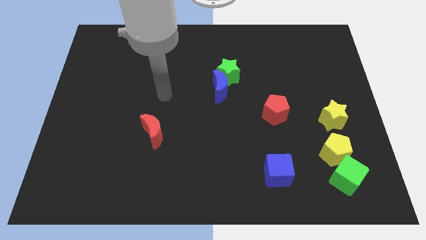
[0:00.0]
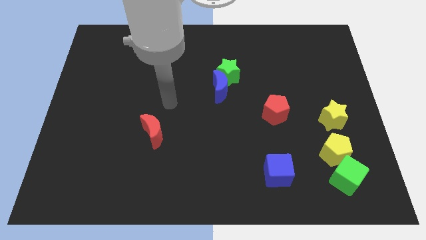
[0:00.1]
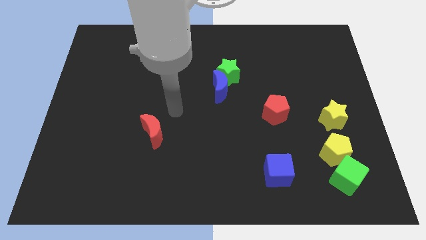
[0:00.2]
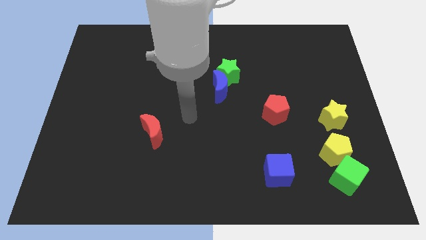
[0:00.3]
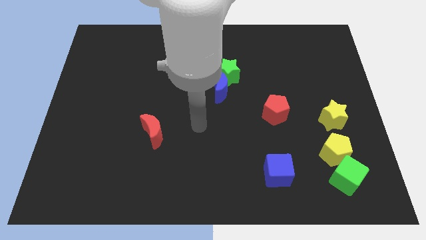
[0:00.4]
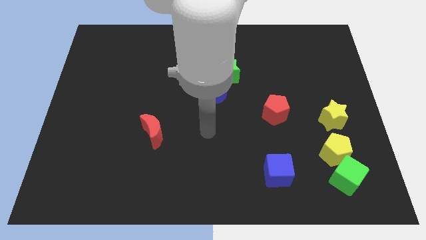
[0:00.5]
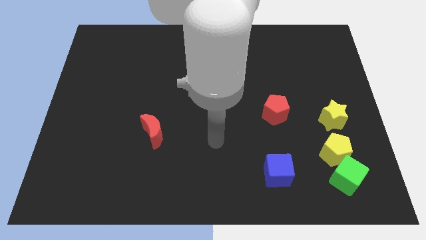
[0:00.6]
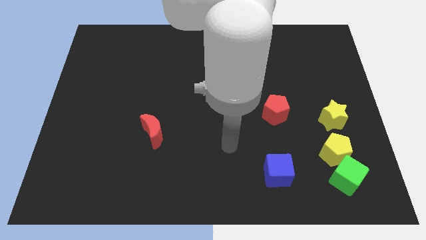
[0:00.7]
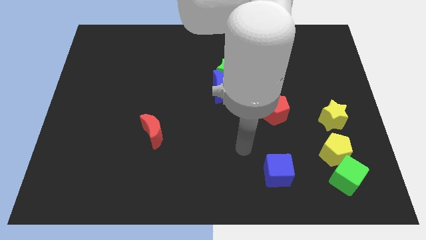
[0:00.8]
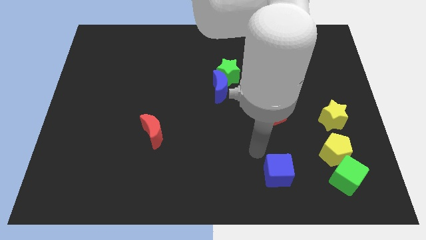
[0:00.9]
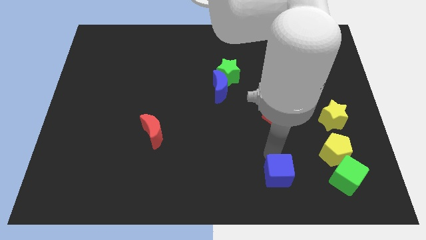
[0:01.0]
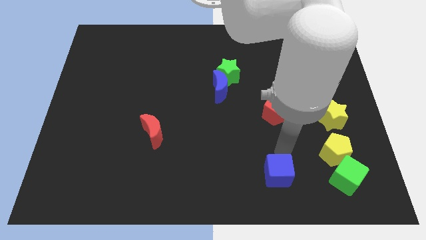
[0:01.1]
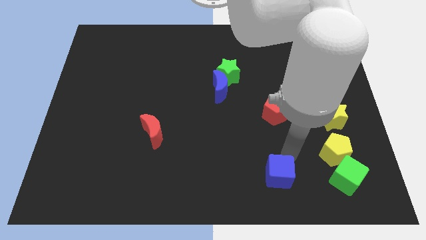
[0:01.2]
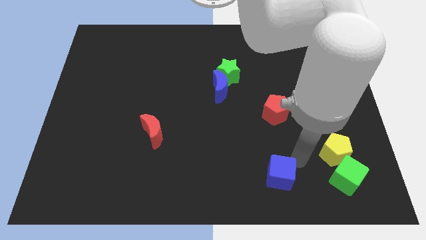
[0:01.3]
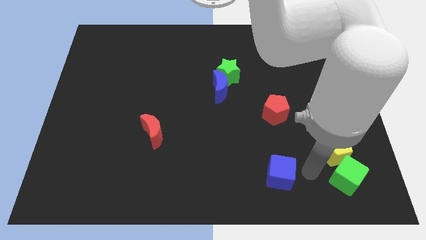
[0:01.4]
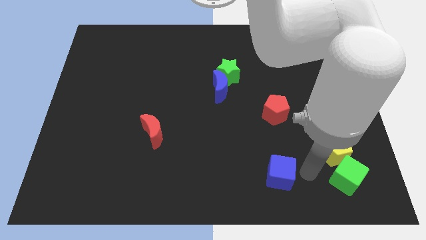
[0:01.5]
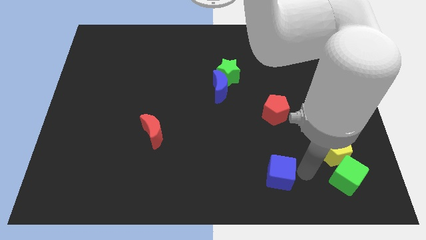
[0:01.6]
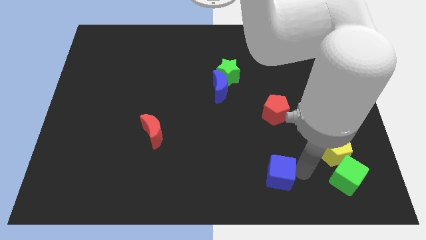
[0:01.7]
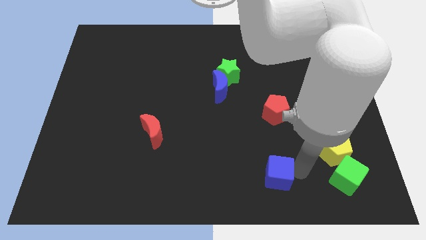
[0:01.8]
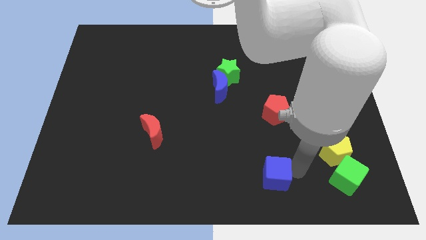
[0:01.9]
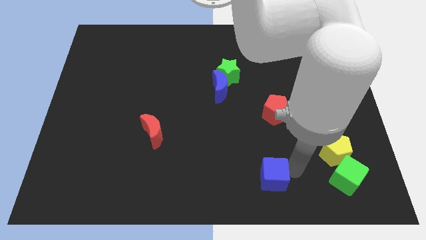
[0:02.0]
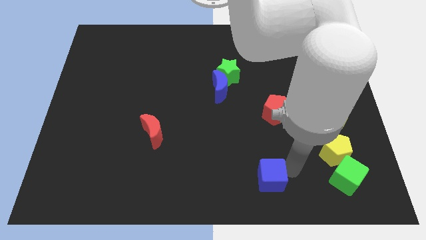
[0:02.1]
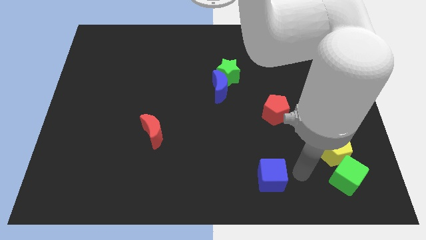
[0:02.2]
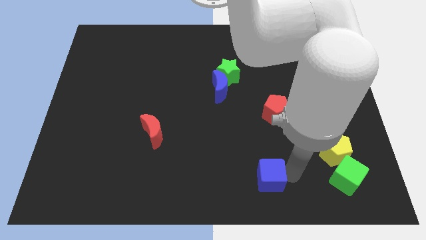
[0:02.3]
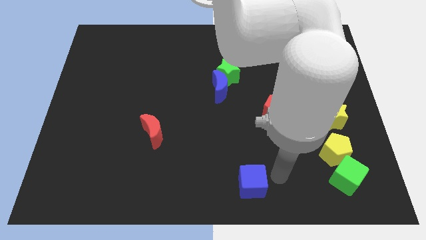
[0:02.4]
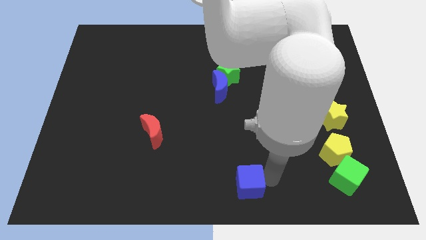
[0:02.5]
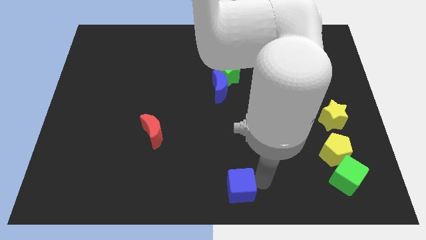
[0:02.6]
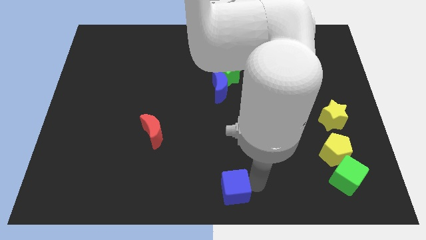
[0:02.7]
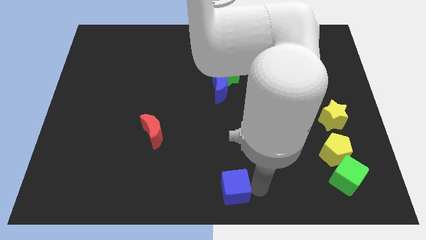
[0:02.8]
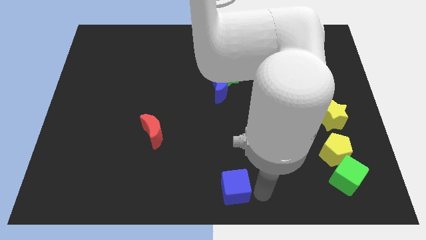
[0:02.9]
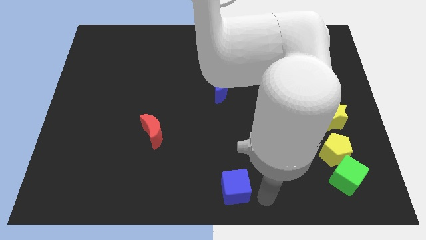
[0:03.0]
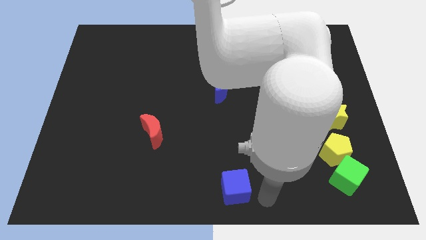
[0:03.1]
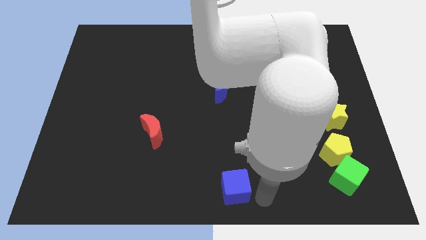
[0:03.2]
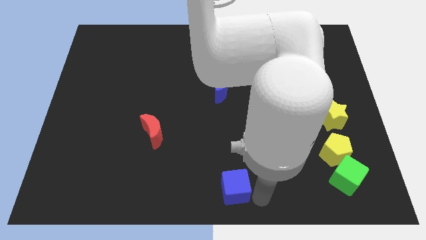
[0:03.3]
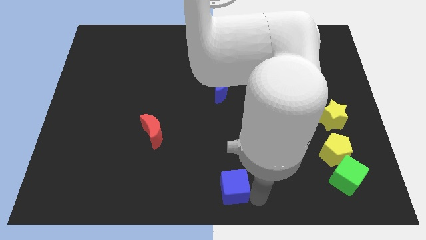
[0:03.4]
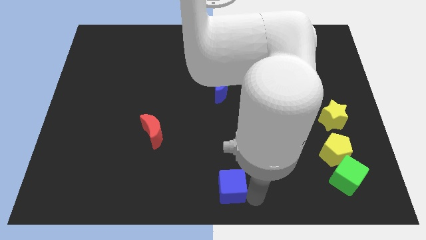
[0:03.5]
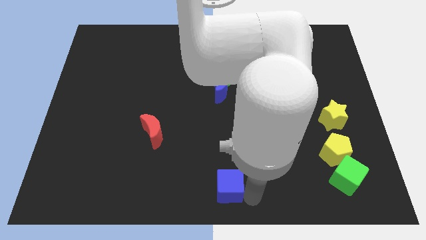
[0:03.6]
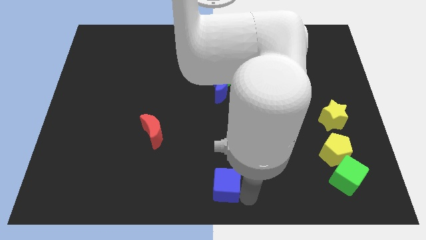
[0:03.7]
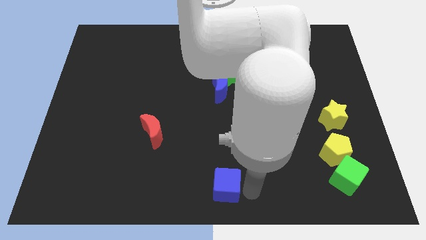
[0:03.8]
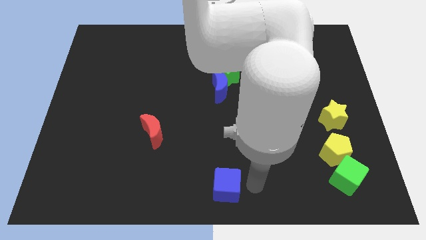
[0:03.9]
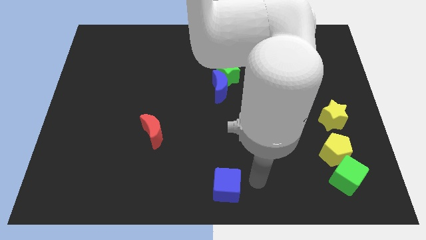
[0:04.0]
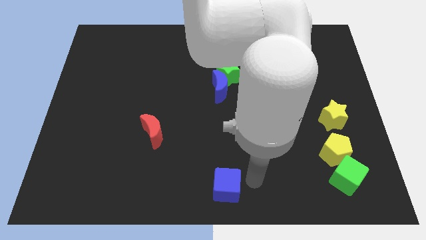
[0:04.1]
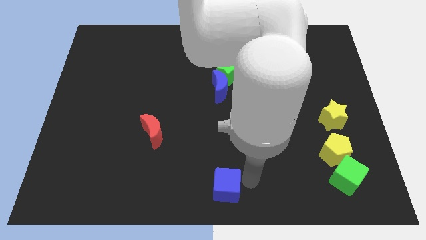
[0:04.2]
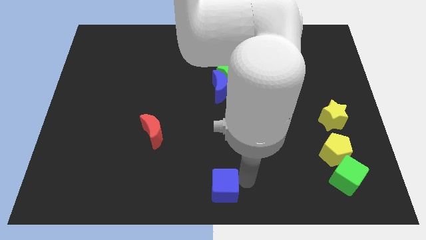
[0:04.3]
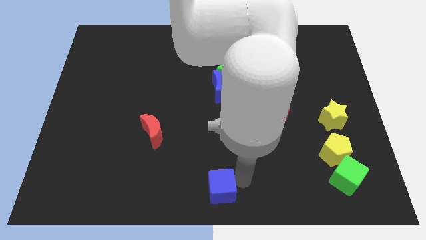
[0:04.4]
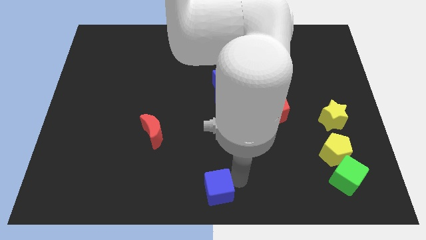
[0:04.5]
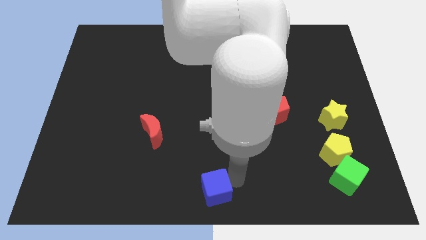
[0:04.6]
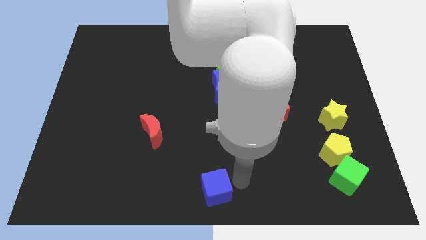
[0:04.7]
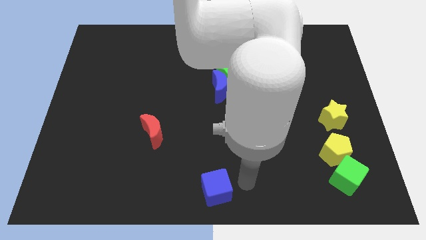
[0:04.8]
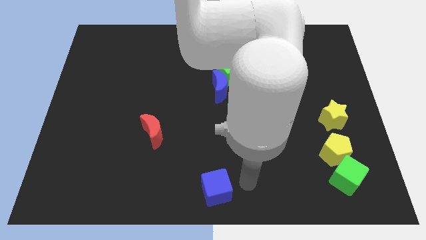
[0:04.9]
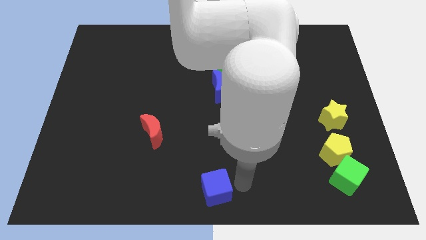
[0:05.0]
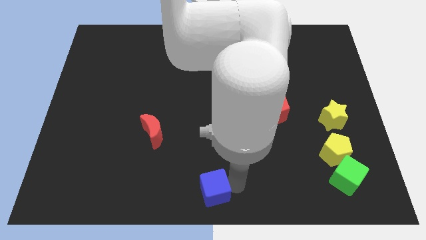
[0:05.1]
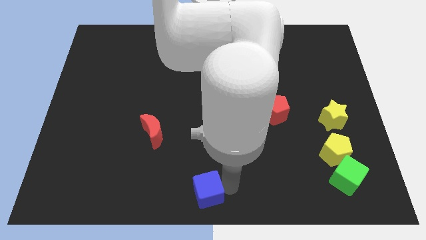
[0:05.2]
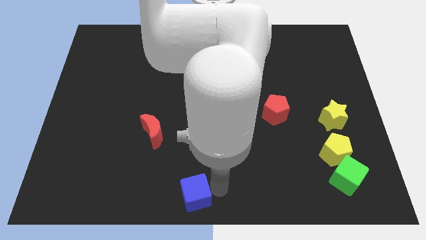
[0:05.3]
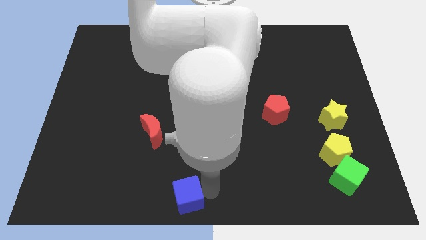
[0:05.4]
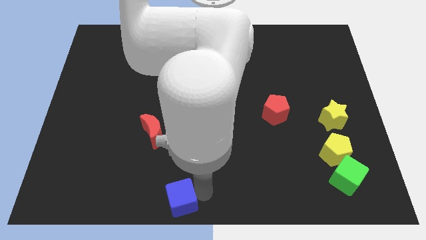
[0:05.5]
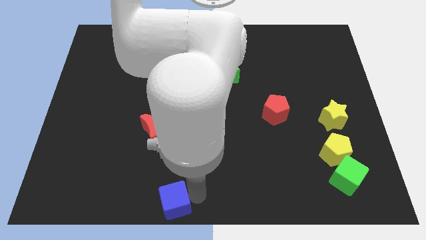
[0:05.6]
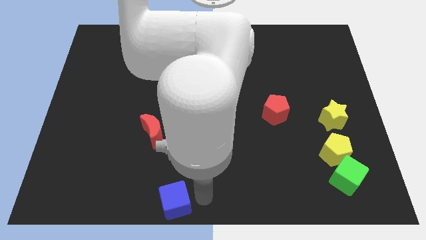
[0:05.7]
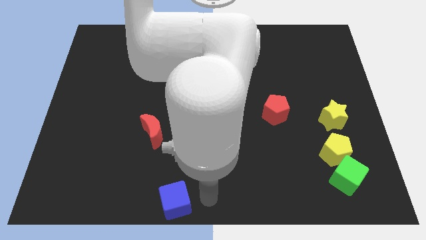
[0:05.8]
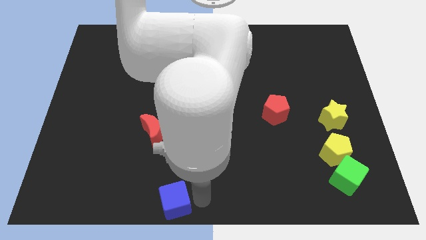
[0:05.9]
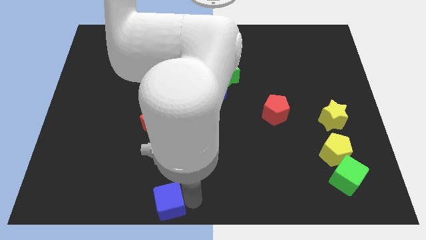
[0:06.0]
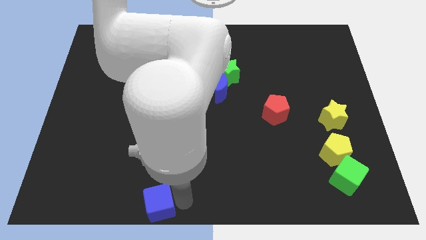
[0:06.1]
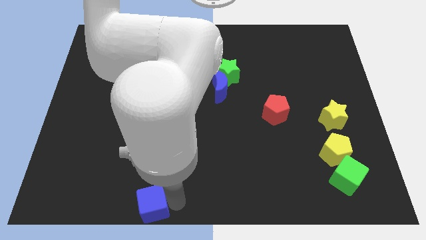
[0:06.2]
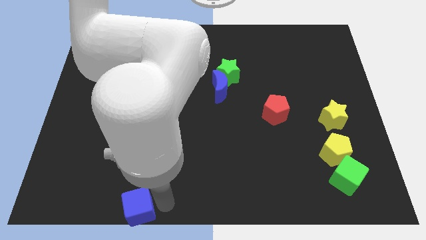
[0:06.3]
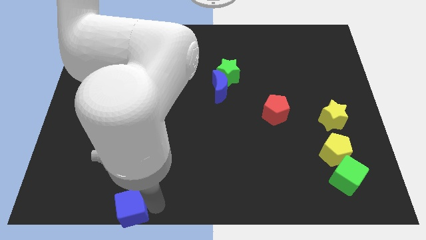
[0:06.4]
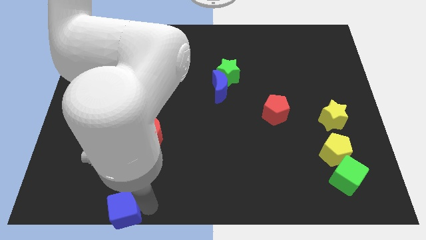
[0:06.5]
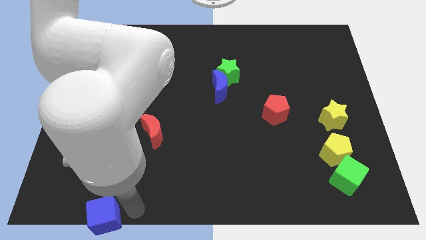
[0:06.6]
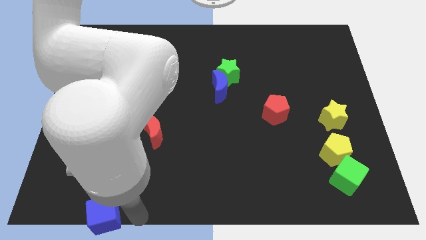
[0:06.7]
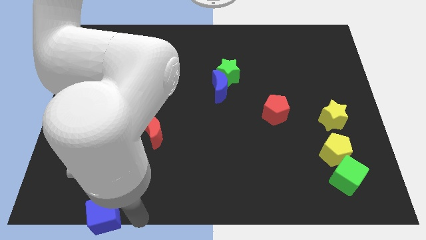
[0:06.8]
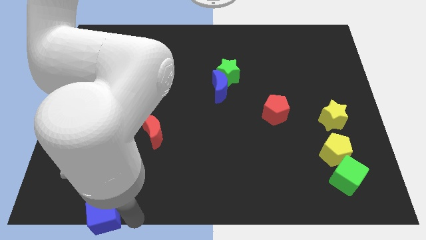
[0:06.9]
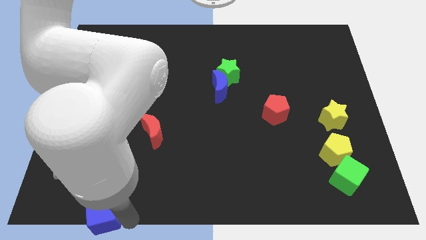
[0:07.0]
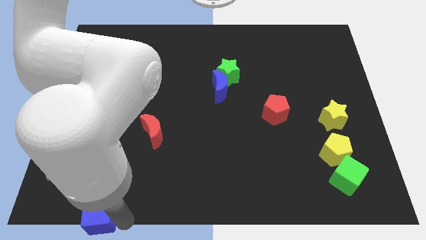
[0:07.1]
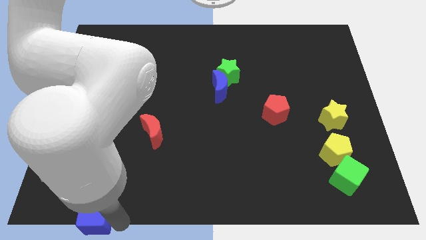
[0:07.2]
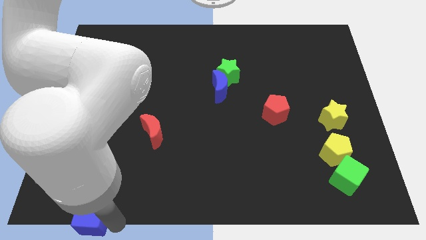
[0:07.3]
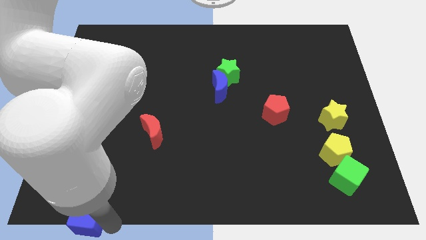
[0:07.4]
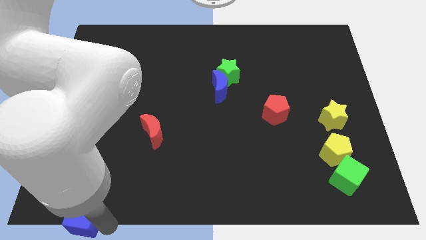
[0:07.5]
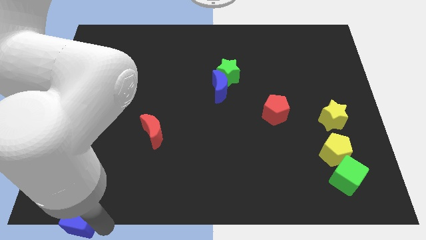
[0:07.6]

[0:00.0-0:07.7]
move the blue cube to the bottom left of the board
